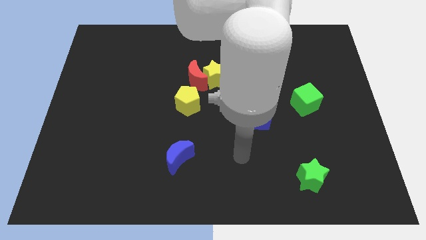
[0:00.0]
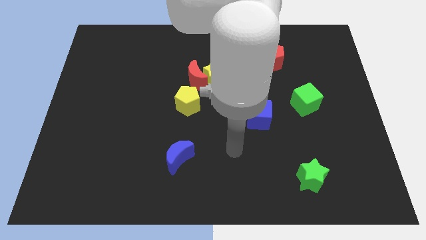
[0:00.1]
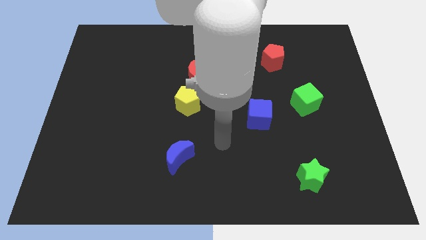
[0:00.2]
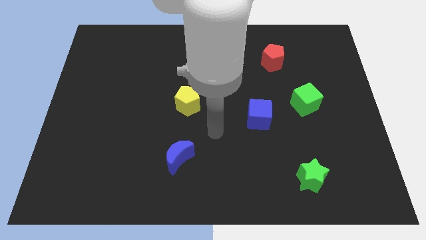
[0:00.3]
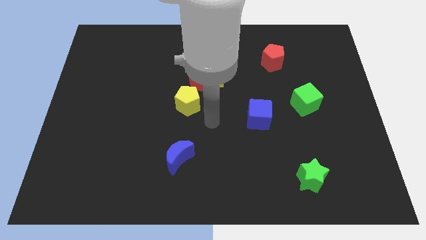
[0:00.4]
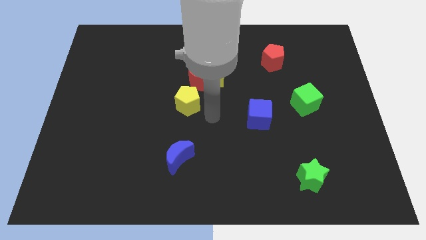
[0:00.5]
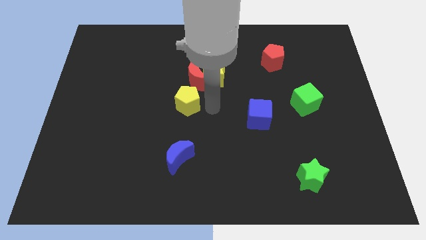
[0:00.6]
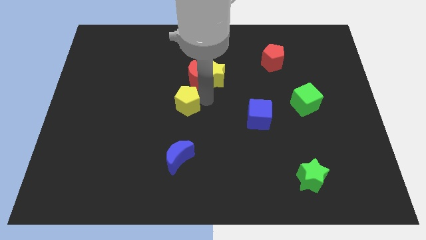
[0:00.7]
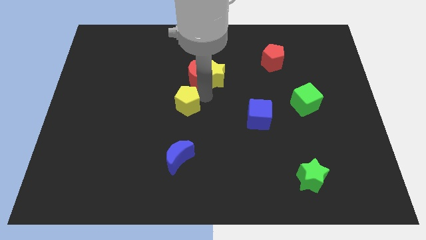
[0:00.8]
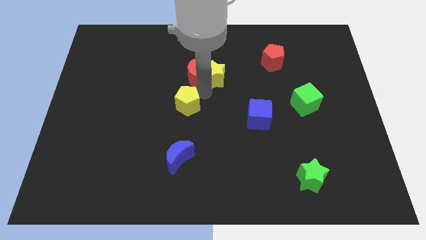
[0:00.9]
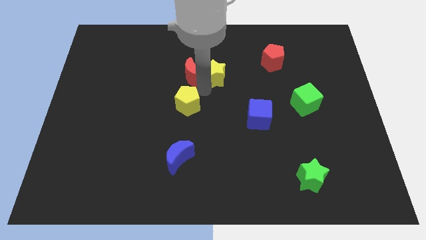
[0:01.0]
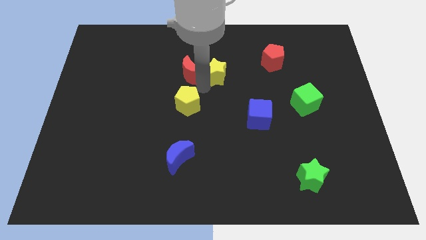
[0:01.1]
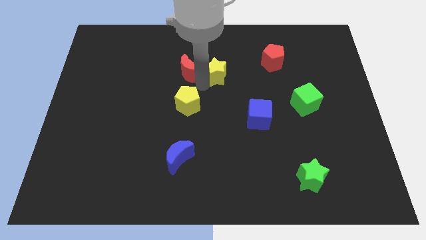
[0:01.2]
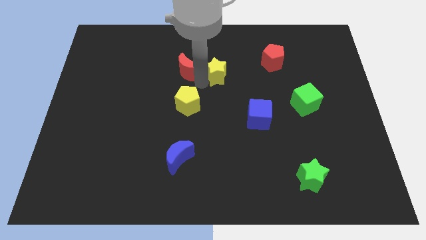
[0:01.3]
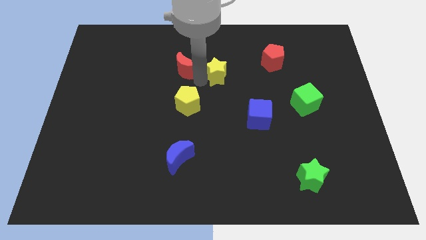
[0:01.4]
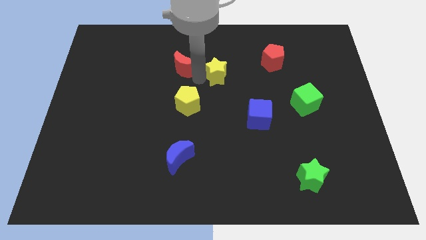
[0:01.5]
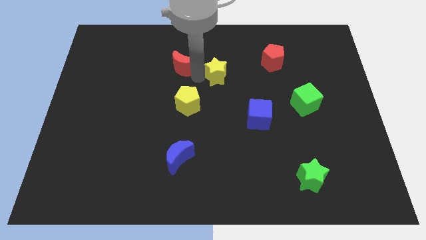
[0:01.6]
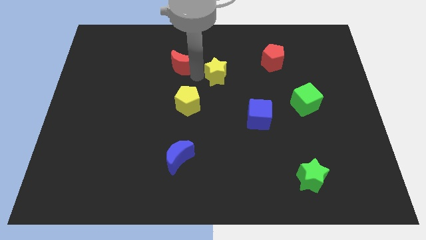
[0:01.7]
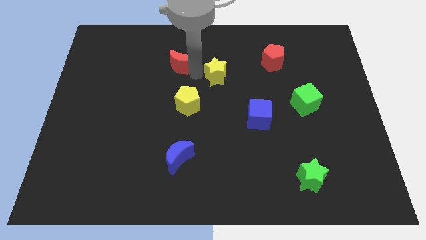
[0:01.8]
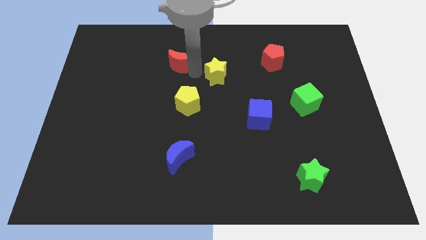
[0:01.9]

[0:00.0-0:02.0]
separate the red moon from the yellow star and yellow pentagon

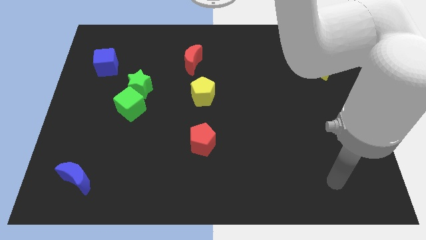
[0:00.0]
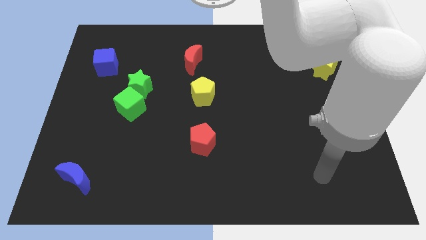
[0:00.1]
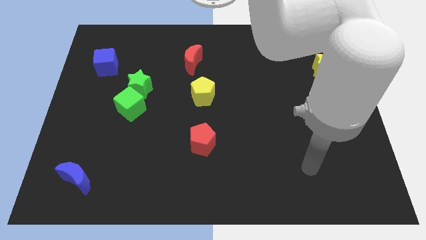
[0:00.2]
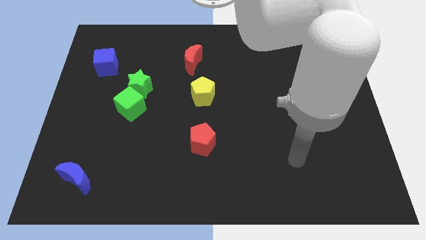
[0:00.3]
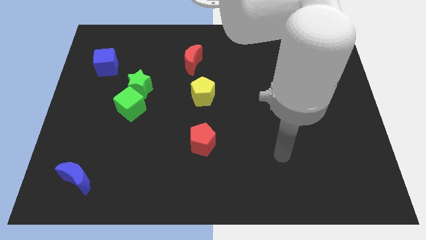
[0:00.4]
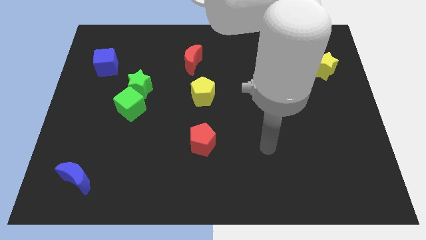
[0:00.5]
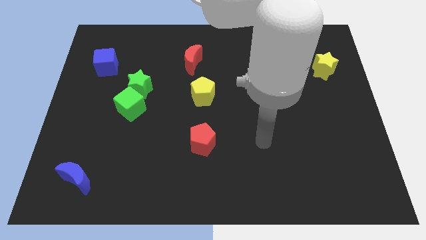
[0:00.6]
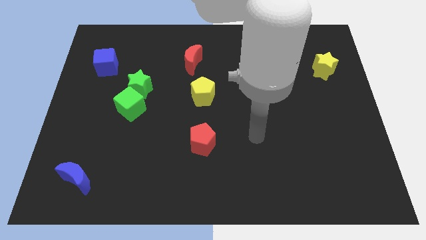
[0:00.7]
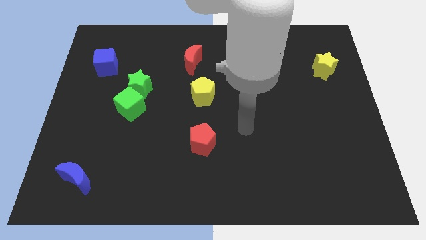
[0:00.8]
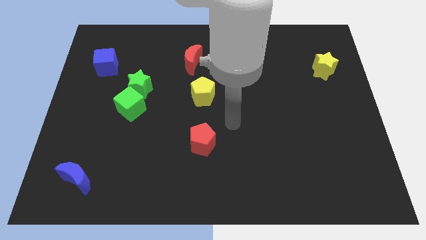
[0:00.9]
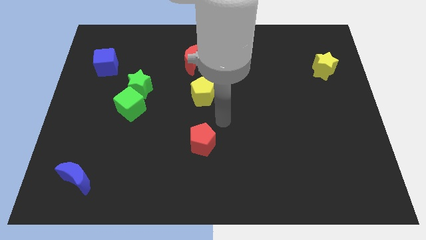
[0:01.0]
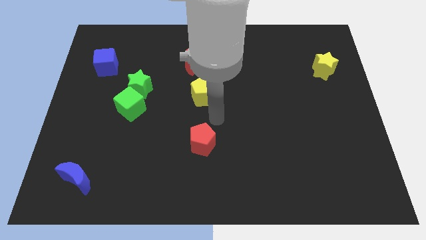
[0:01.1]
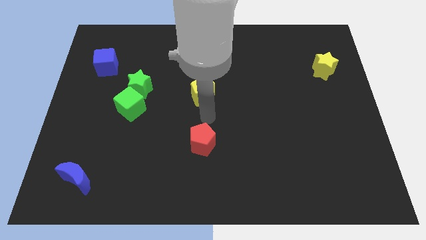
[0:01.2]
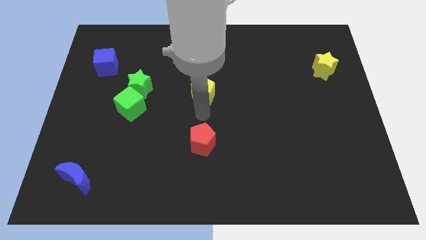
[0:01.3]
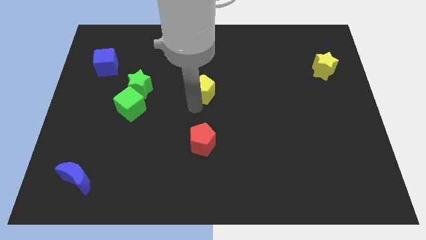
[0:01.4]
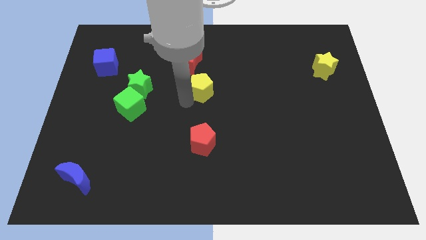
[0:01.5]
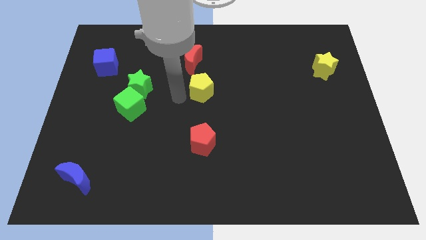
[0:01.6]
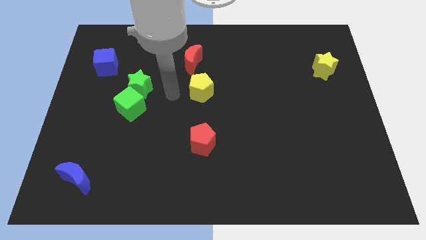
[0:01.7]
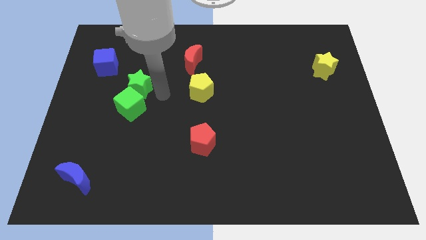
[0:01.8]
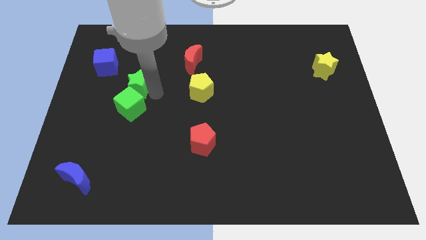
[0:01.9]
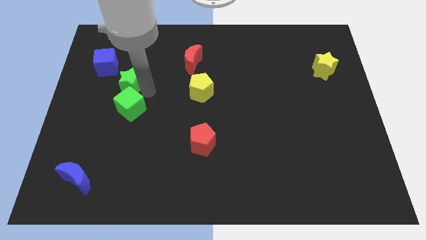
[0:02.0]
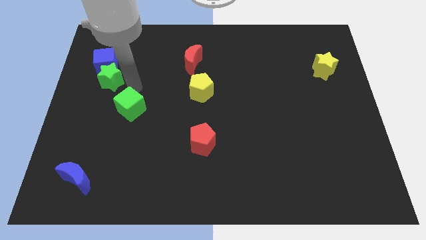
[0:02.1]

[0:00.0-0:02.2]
pull the green cube apart from the green star

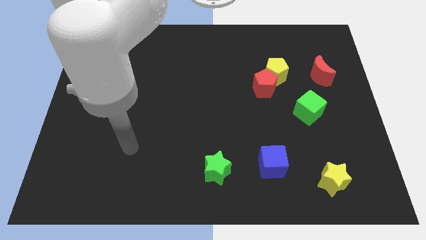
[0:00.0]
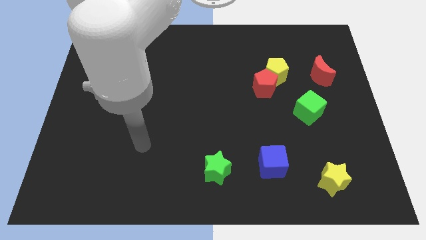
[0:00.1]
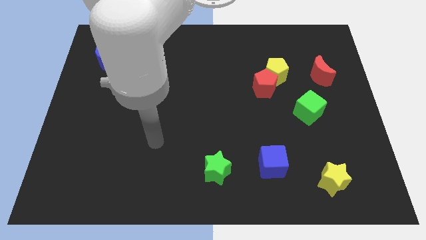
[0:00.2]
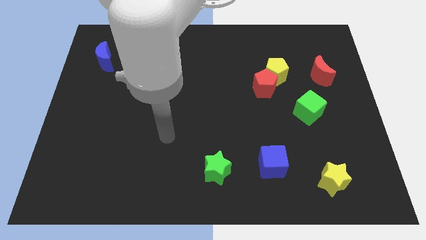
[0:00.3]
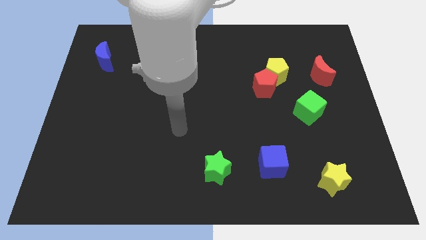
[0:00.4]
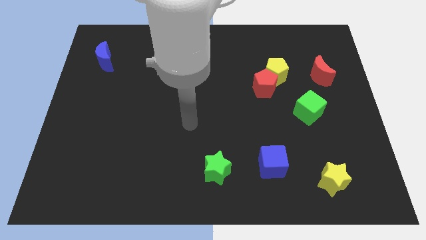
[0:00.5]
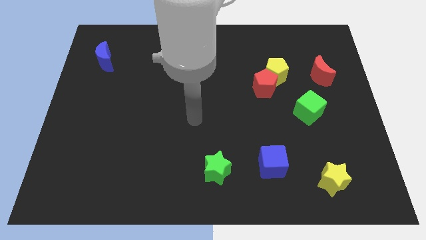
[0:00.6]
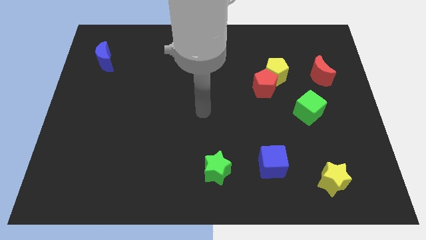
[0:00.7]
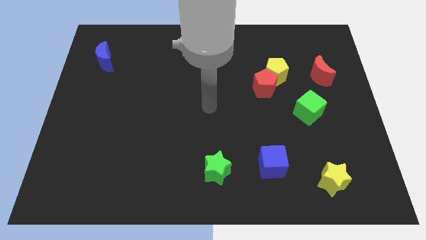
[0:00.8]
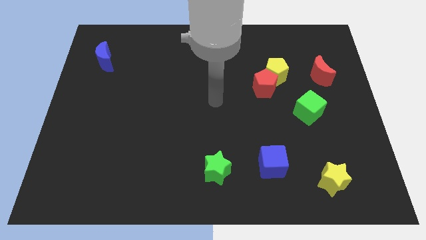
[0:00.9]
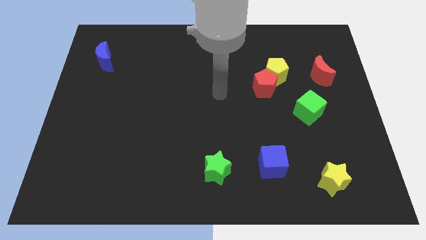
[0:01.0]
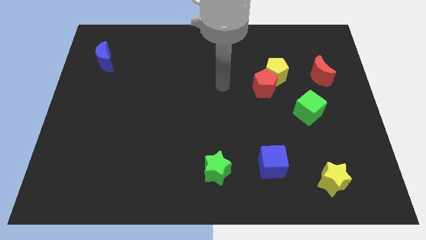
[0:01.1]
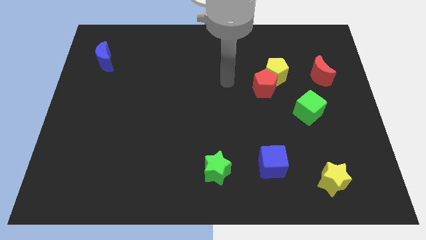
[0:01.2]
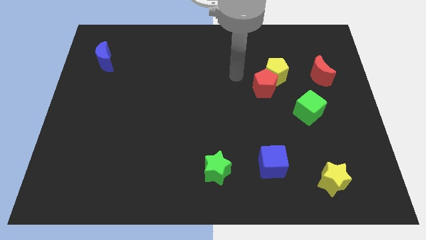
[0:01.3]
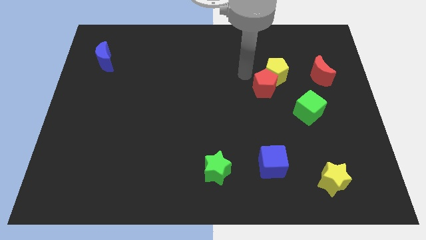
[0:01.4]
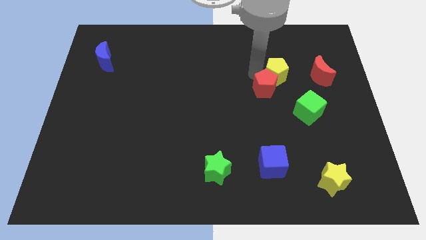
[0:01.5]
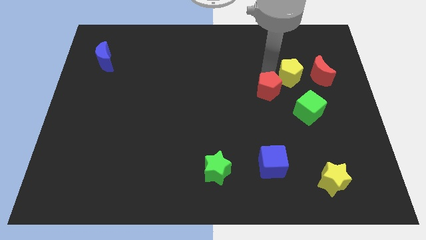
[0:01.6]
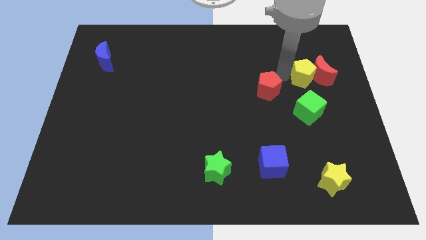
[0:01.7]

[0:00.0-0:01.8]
move the red pentagon away from the yellow pentagon

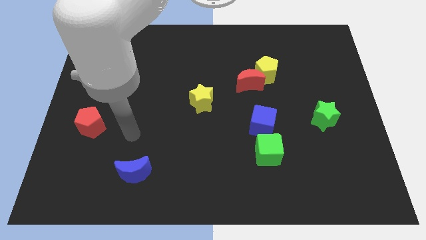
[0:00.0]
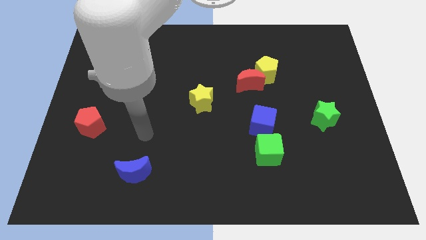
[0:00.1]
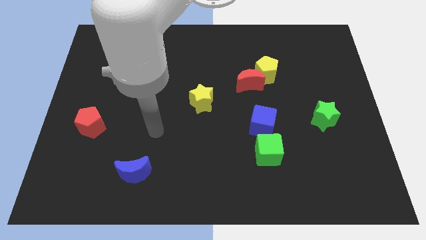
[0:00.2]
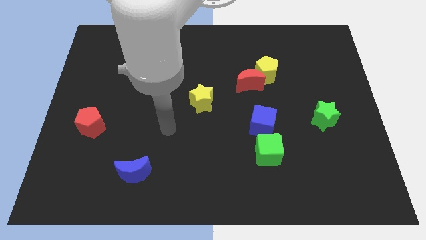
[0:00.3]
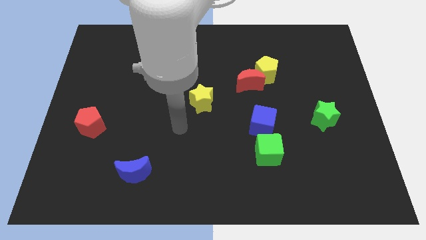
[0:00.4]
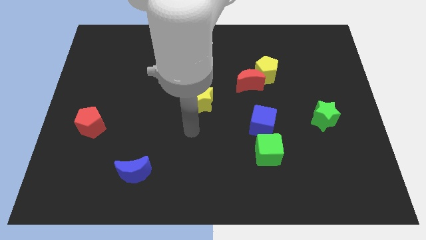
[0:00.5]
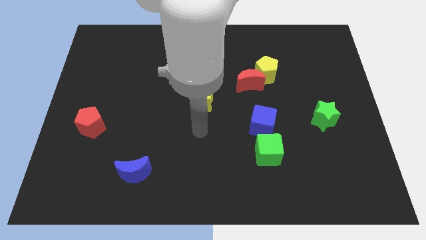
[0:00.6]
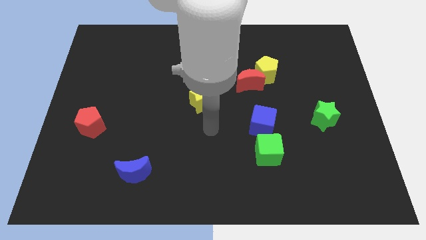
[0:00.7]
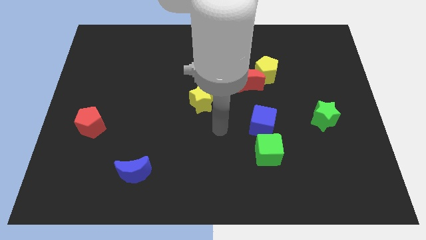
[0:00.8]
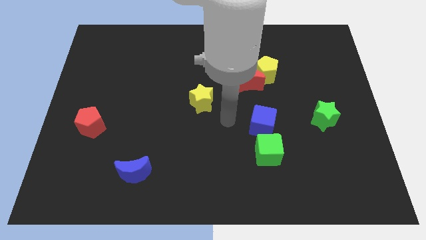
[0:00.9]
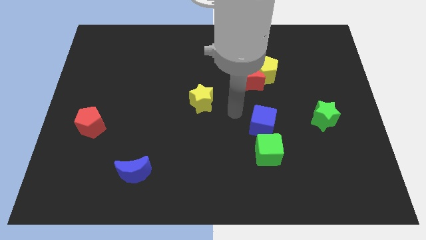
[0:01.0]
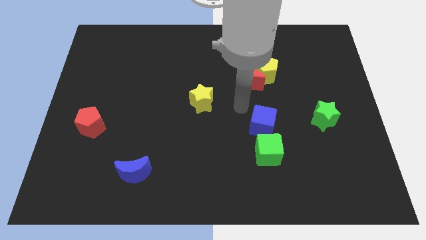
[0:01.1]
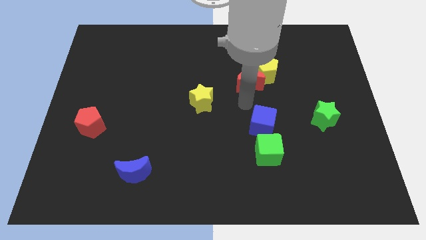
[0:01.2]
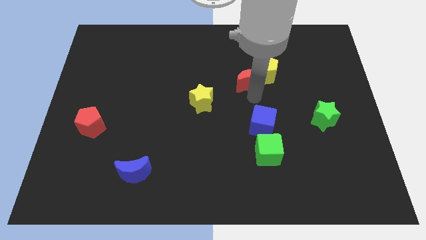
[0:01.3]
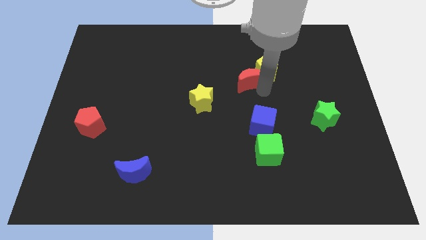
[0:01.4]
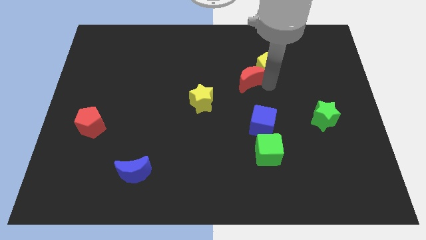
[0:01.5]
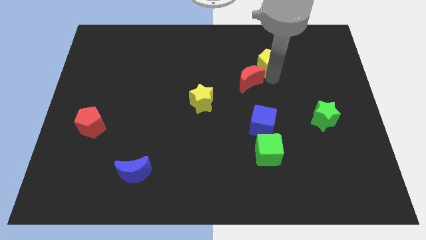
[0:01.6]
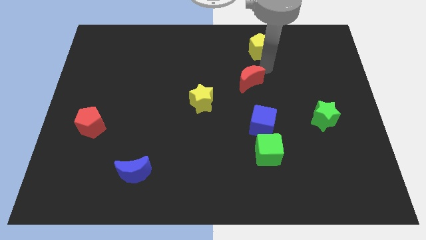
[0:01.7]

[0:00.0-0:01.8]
move the red moon away from the yellow pentagon

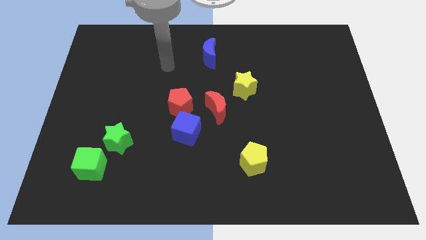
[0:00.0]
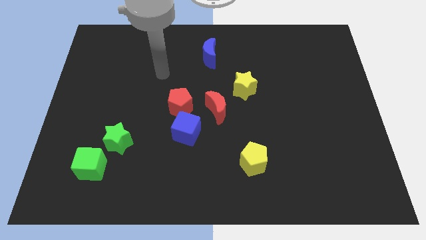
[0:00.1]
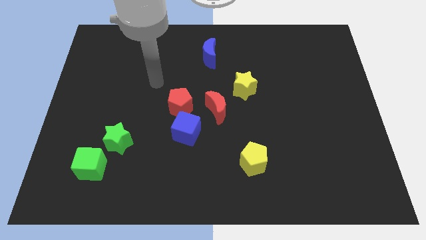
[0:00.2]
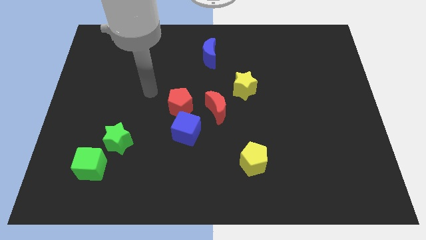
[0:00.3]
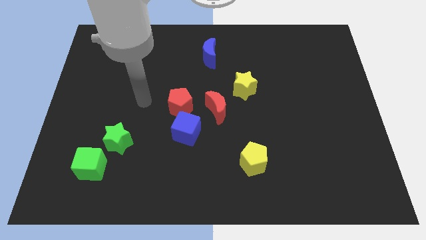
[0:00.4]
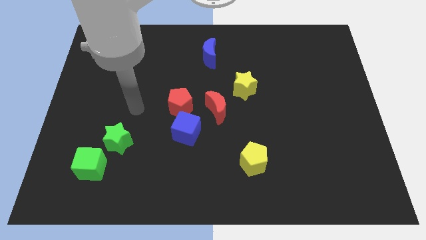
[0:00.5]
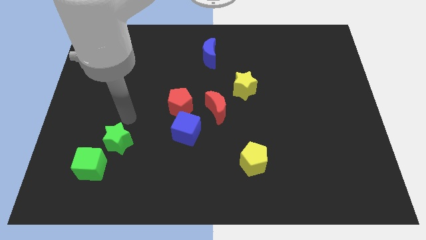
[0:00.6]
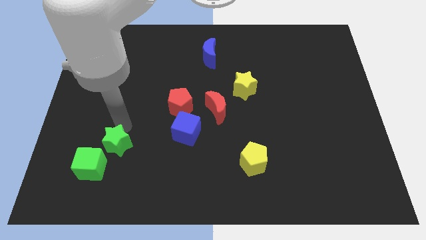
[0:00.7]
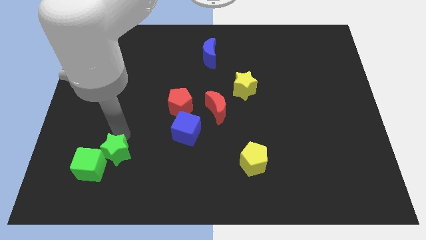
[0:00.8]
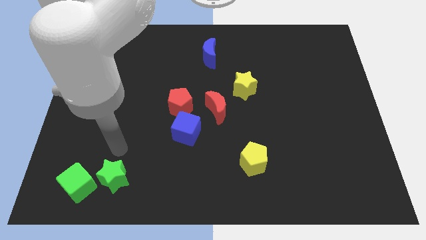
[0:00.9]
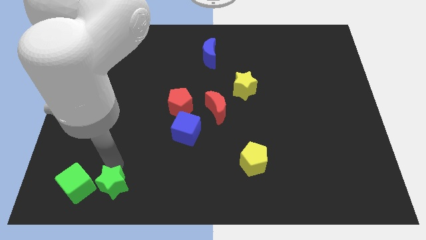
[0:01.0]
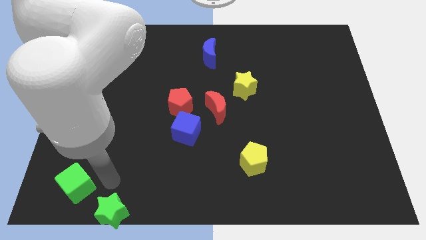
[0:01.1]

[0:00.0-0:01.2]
move the green cube away from the green star

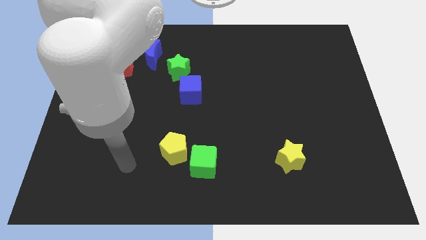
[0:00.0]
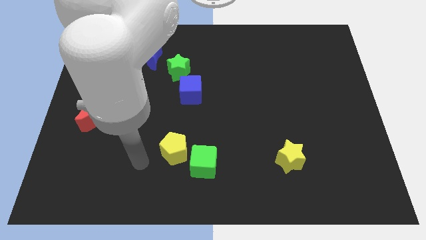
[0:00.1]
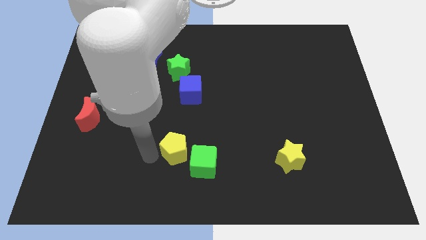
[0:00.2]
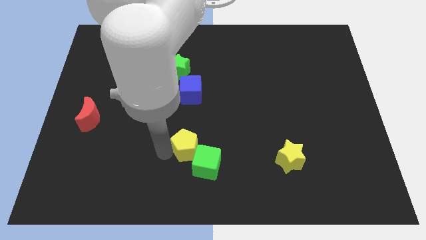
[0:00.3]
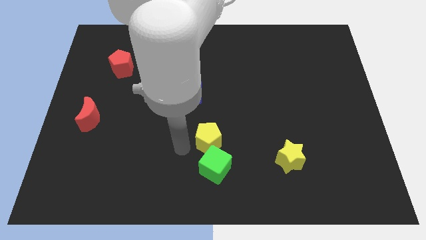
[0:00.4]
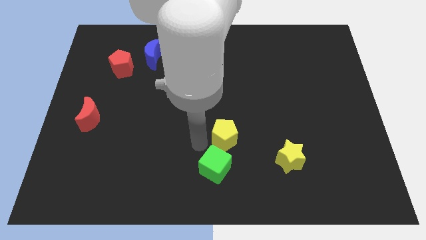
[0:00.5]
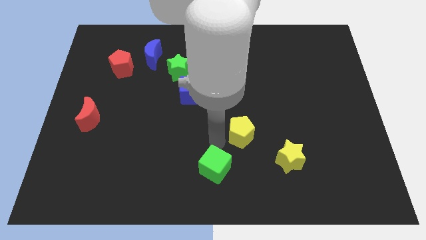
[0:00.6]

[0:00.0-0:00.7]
move the green cube away from the yellow pentagon
